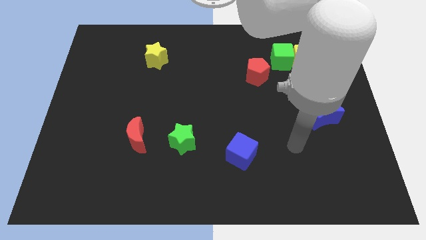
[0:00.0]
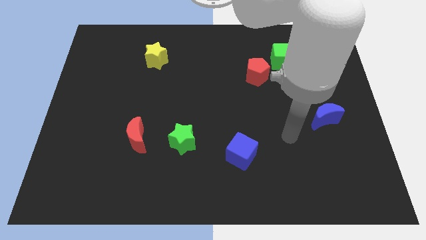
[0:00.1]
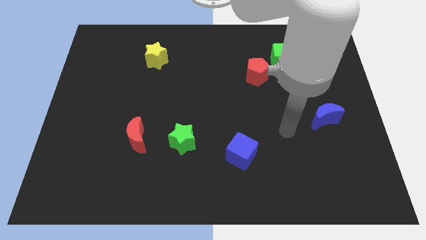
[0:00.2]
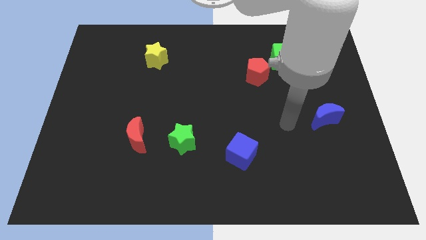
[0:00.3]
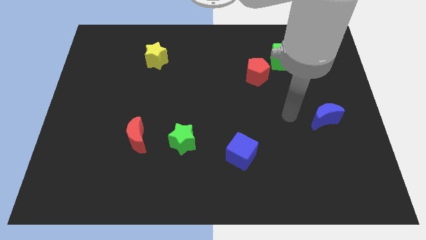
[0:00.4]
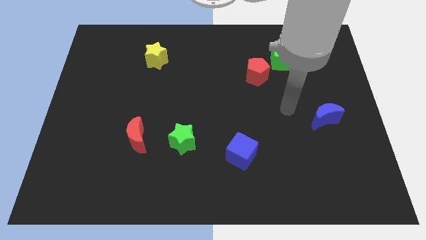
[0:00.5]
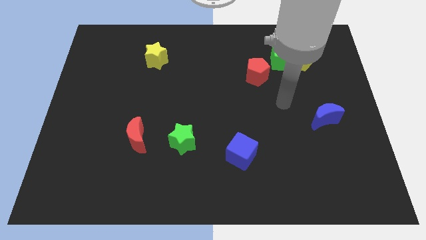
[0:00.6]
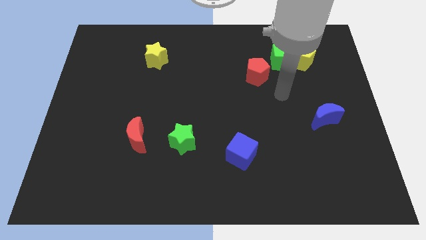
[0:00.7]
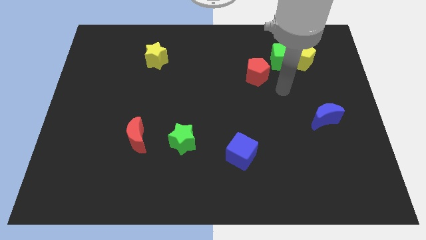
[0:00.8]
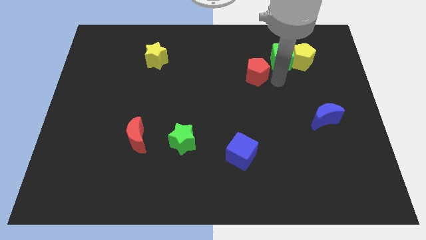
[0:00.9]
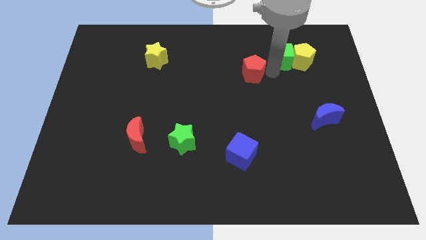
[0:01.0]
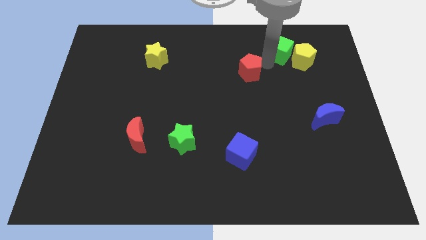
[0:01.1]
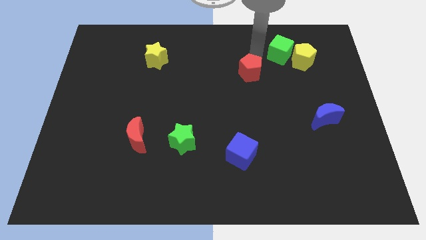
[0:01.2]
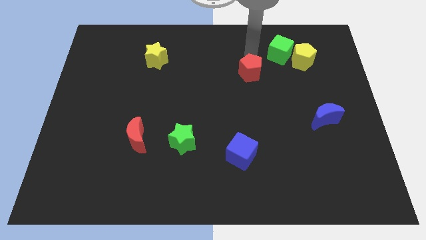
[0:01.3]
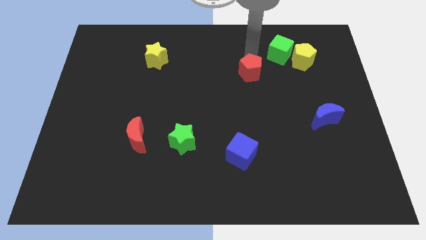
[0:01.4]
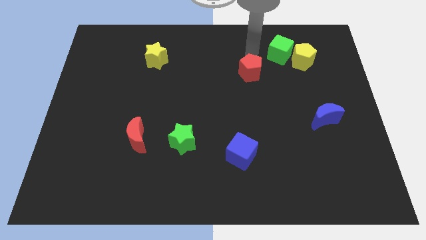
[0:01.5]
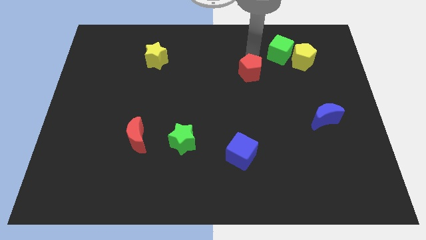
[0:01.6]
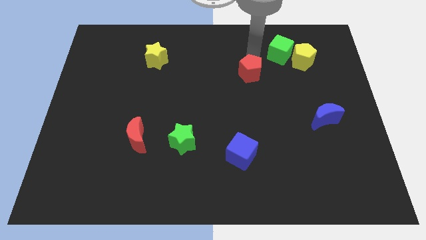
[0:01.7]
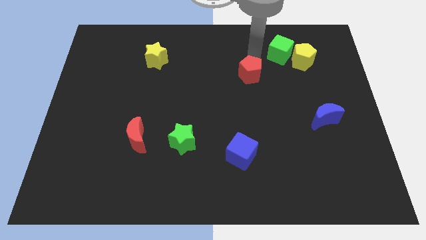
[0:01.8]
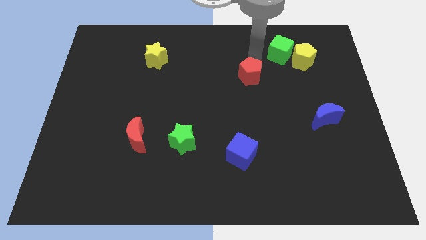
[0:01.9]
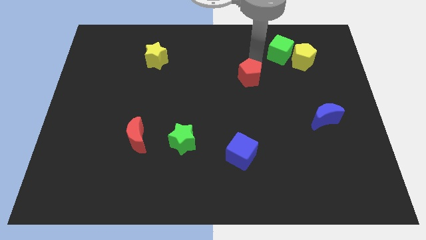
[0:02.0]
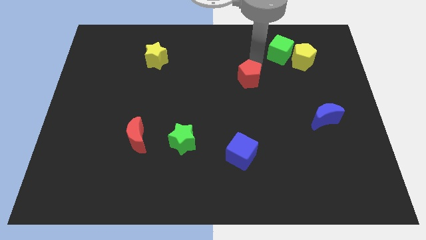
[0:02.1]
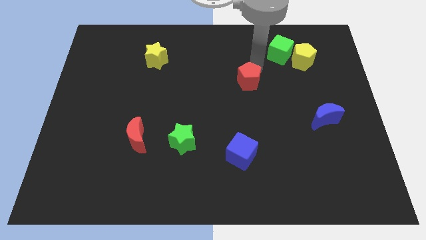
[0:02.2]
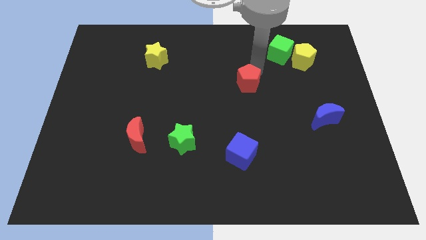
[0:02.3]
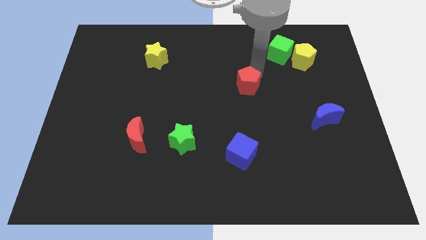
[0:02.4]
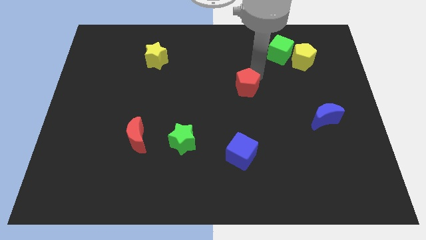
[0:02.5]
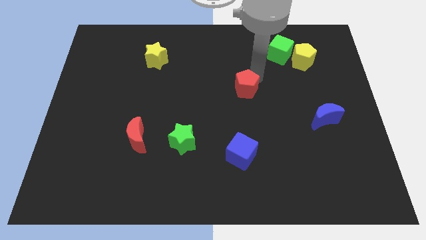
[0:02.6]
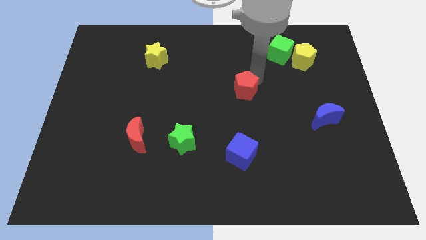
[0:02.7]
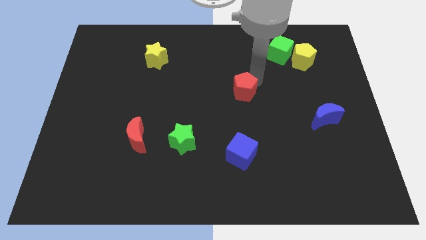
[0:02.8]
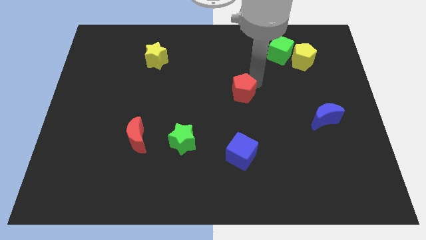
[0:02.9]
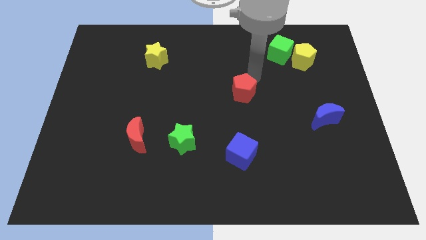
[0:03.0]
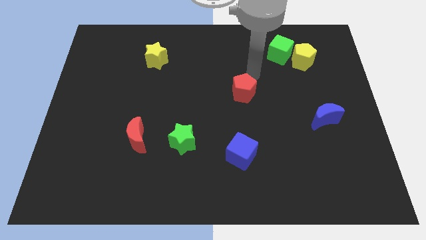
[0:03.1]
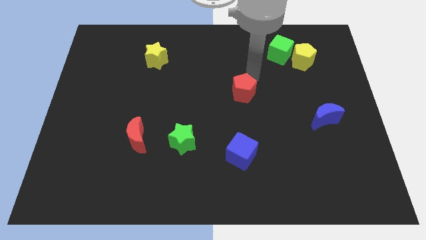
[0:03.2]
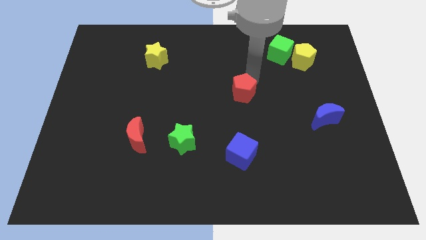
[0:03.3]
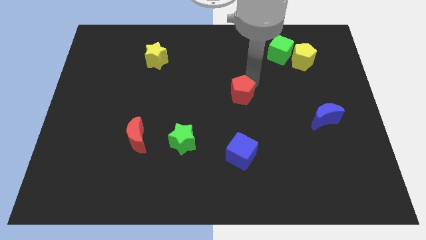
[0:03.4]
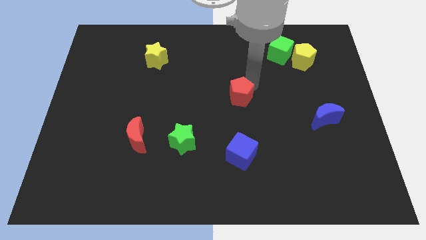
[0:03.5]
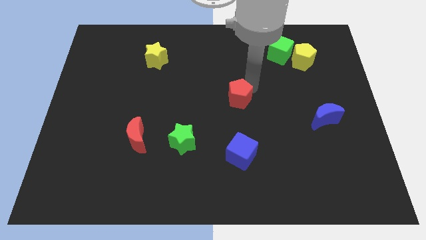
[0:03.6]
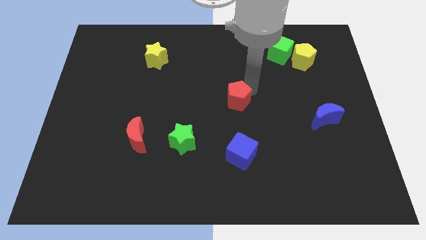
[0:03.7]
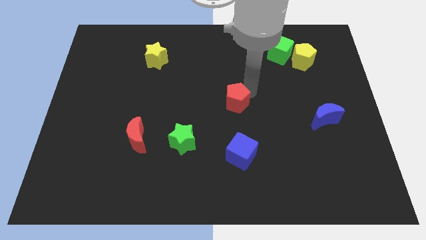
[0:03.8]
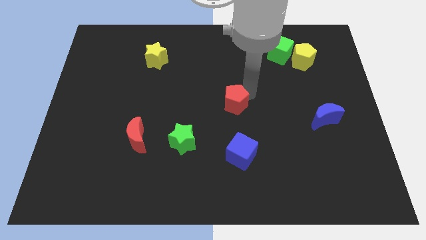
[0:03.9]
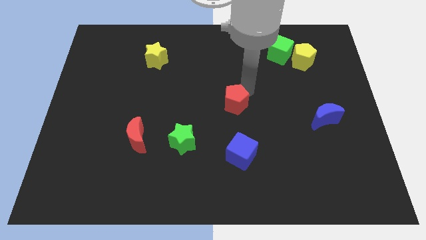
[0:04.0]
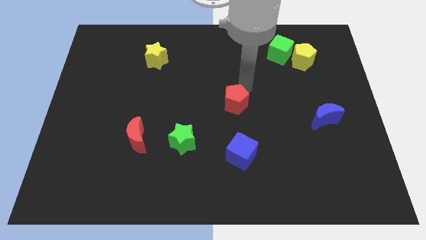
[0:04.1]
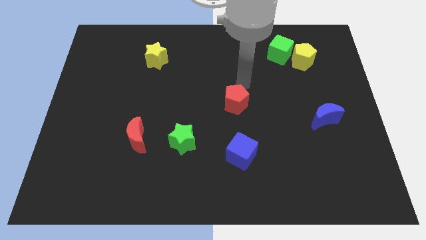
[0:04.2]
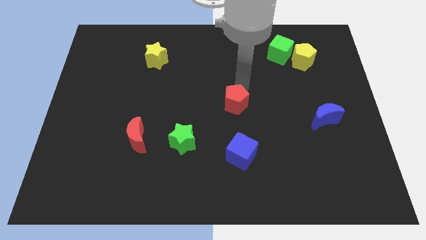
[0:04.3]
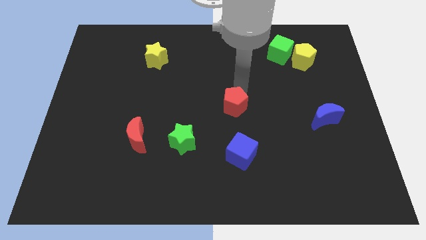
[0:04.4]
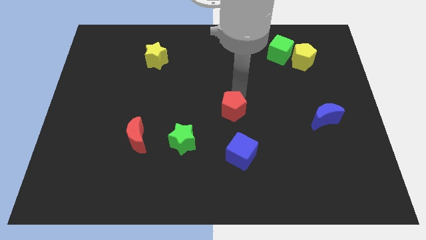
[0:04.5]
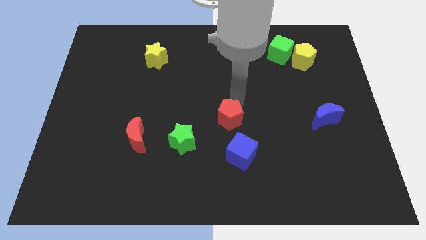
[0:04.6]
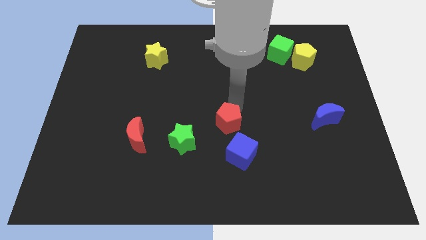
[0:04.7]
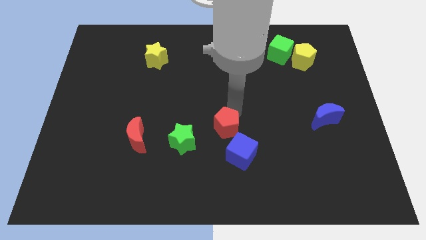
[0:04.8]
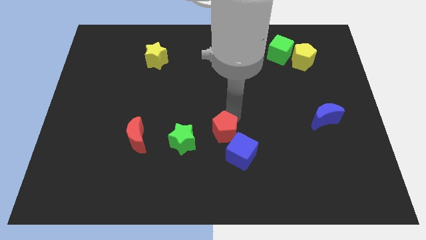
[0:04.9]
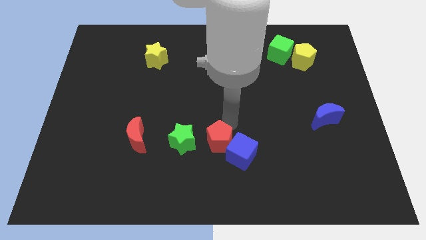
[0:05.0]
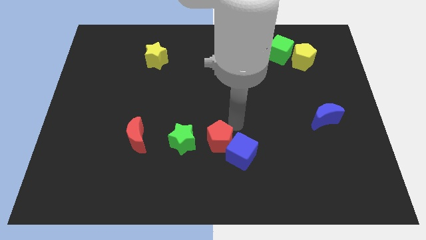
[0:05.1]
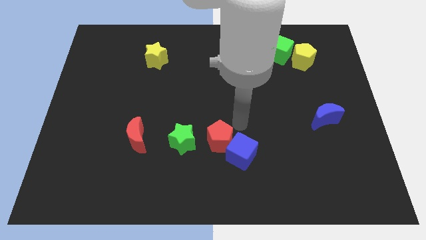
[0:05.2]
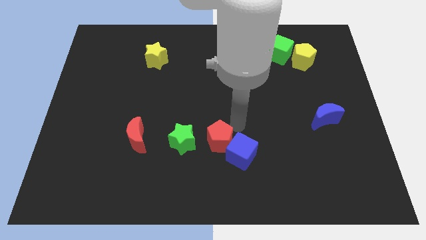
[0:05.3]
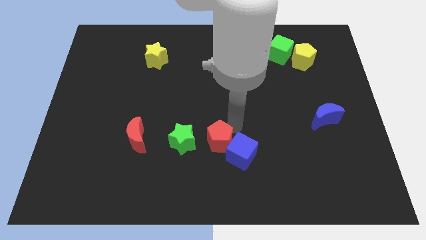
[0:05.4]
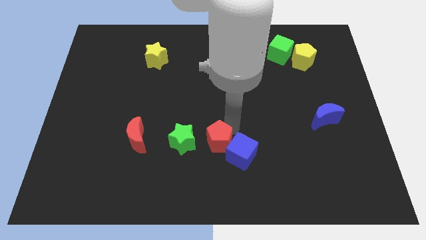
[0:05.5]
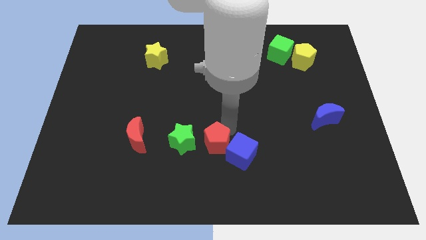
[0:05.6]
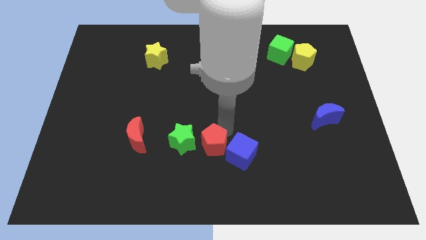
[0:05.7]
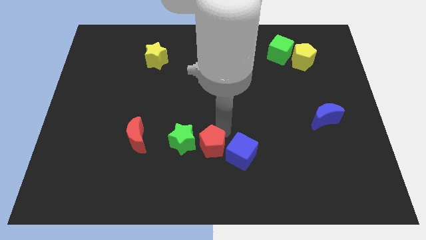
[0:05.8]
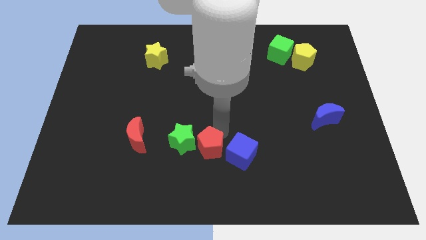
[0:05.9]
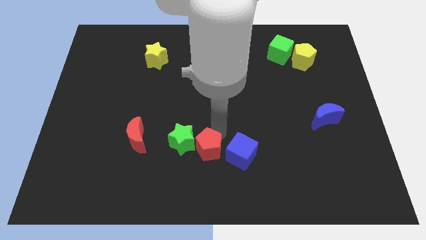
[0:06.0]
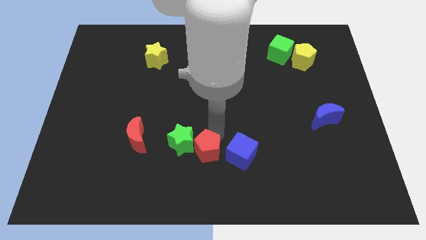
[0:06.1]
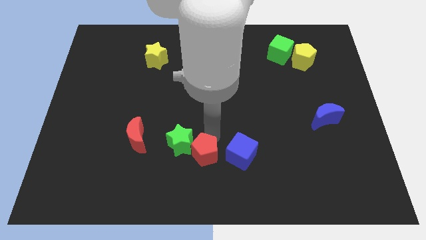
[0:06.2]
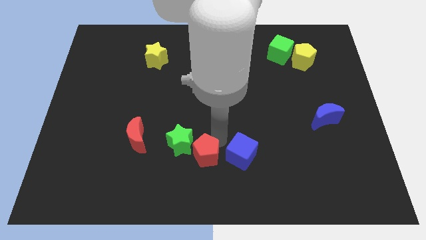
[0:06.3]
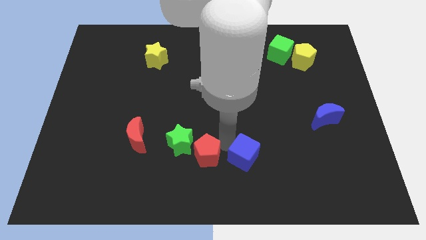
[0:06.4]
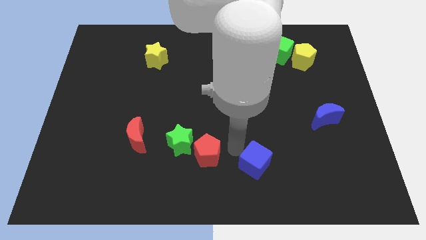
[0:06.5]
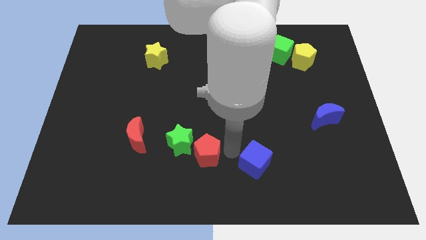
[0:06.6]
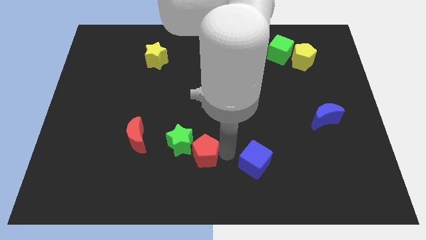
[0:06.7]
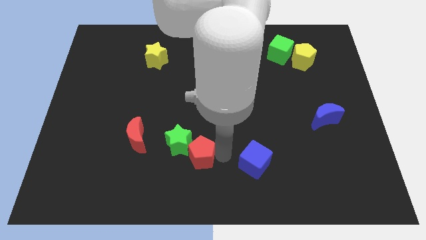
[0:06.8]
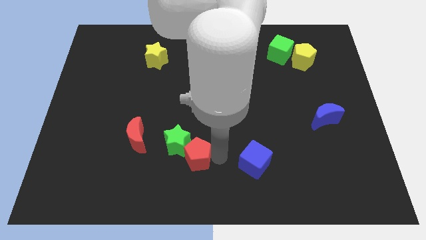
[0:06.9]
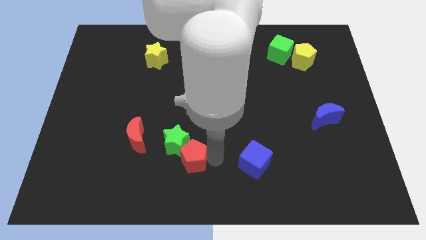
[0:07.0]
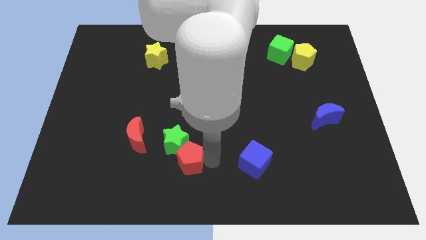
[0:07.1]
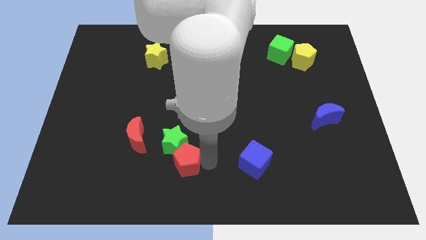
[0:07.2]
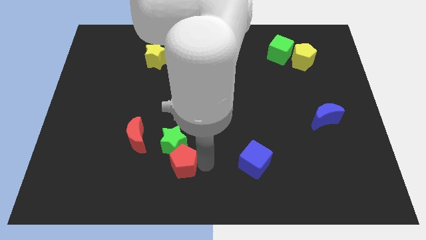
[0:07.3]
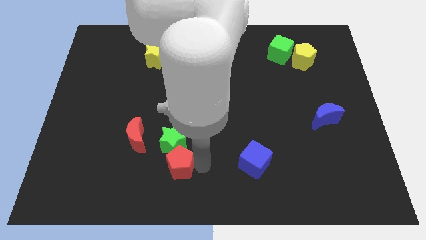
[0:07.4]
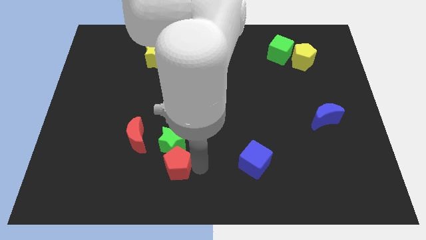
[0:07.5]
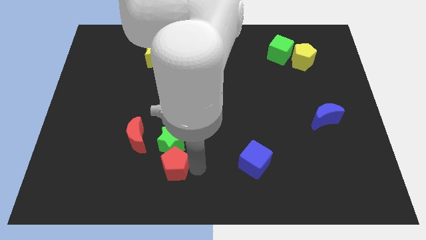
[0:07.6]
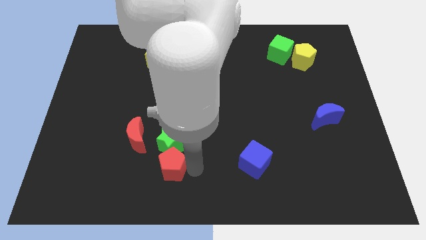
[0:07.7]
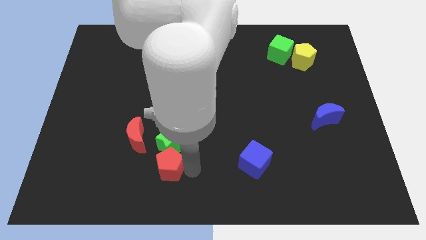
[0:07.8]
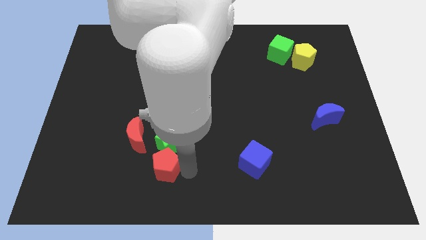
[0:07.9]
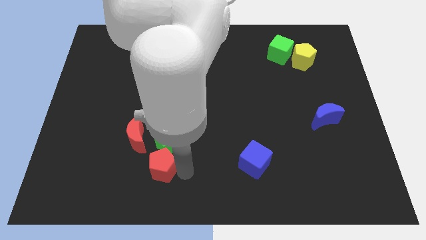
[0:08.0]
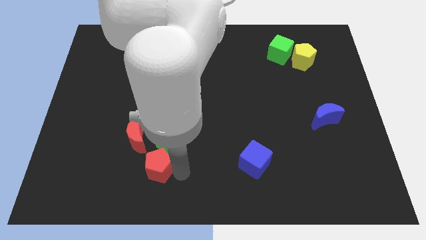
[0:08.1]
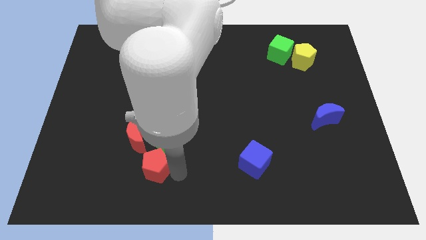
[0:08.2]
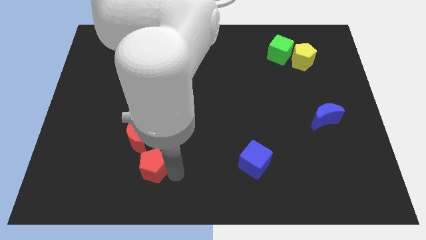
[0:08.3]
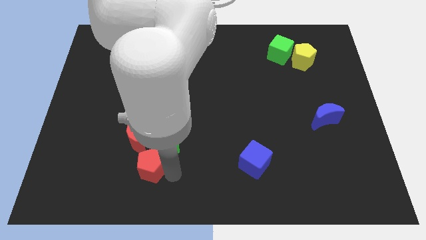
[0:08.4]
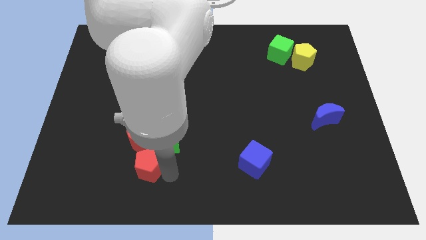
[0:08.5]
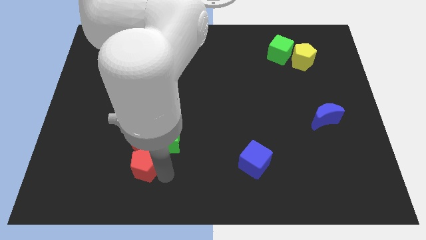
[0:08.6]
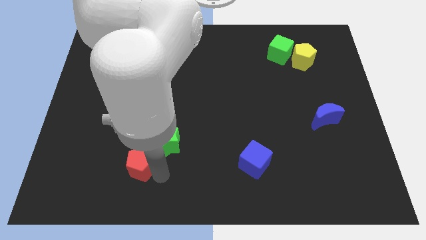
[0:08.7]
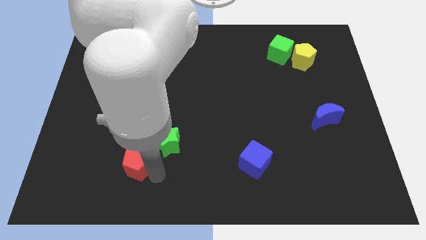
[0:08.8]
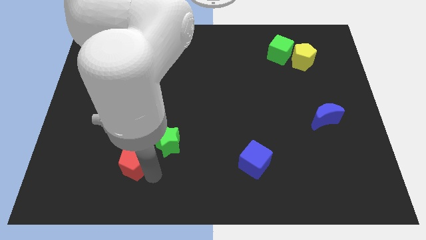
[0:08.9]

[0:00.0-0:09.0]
move the red pentagon diagonally down and to the left of the red moon
